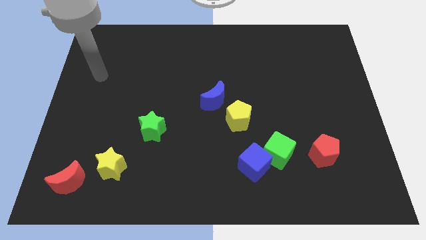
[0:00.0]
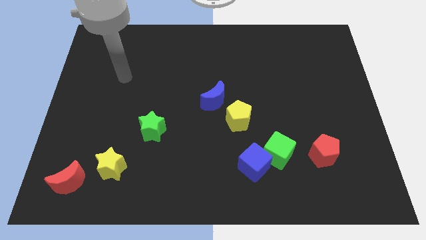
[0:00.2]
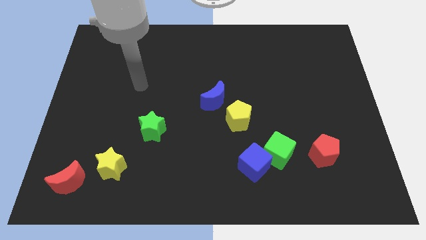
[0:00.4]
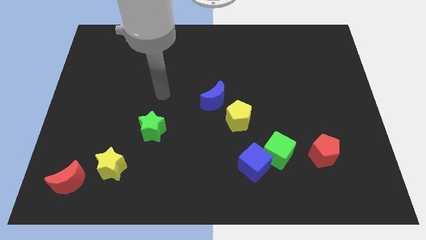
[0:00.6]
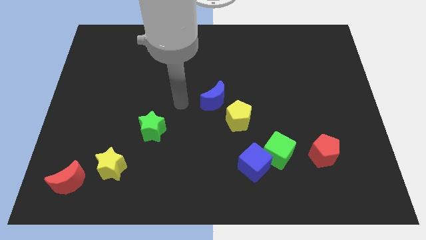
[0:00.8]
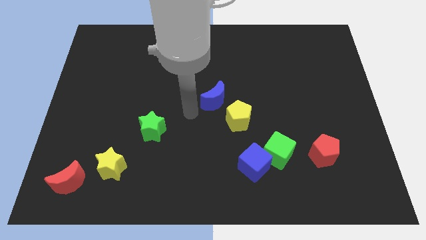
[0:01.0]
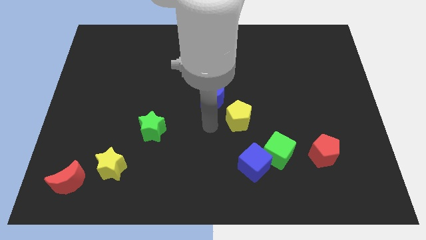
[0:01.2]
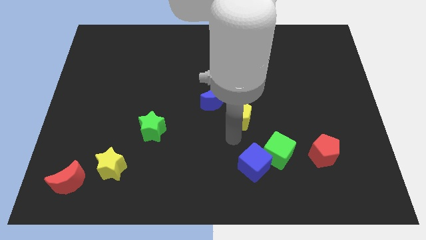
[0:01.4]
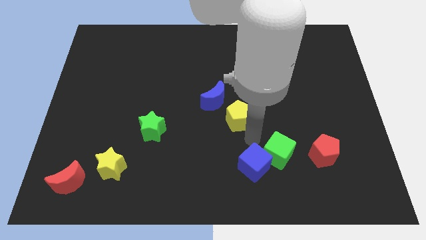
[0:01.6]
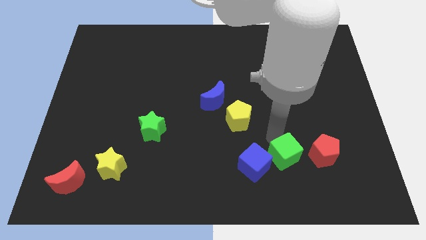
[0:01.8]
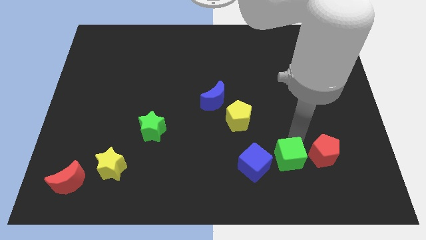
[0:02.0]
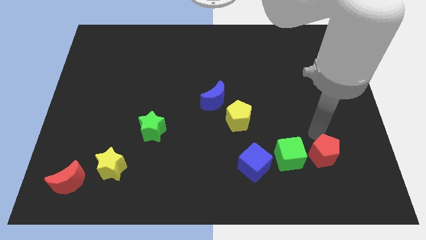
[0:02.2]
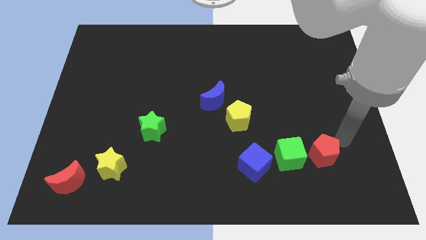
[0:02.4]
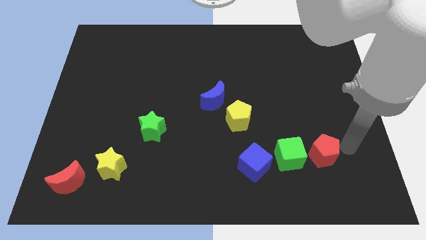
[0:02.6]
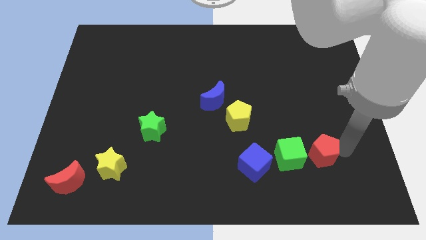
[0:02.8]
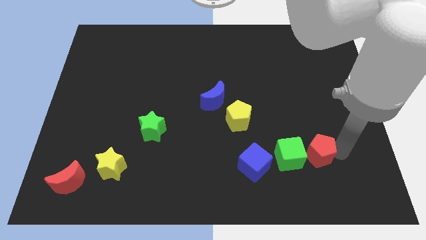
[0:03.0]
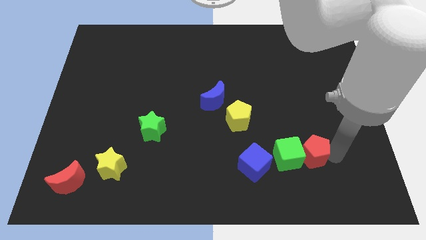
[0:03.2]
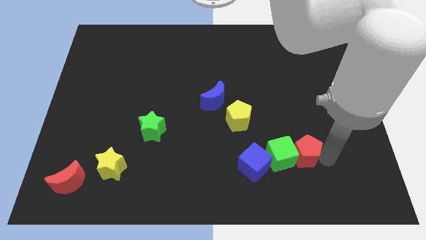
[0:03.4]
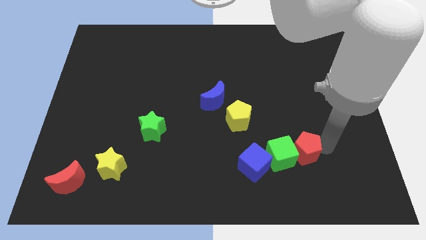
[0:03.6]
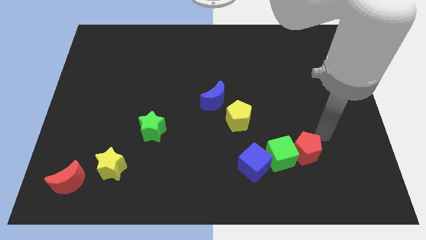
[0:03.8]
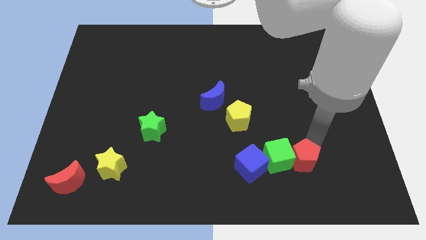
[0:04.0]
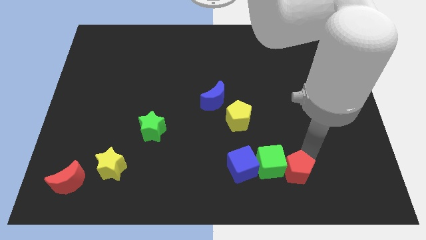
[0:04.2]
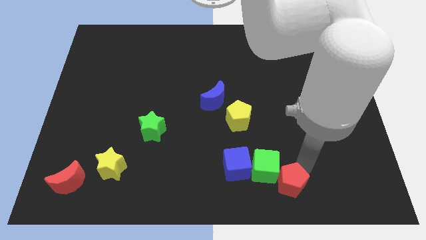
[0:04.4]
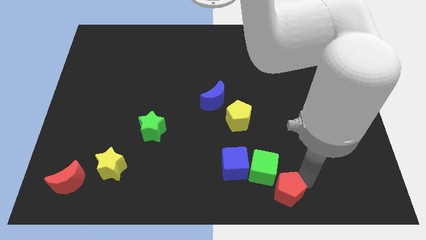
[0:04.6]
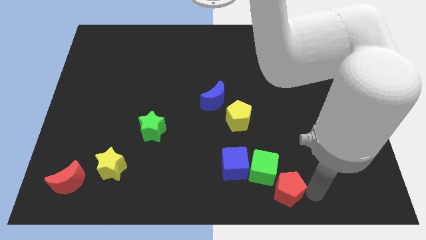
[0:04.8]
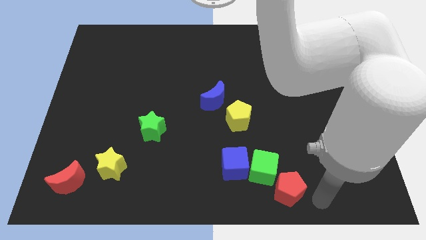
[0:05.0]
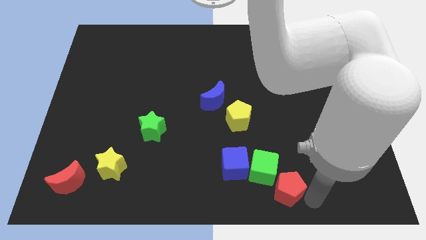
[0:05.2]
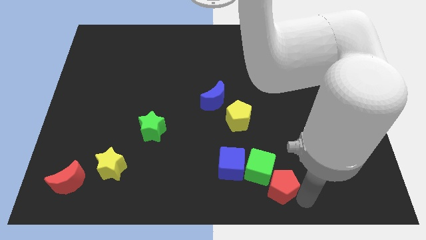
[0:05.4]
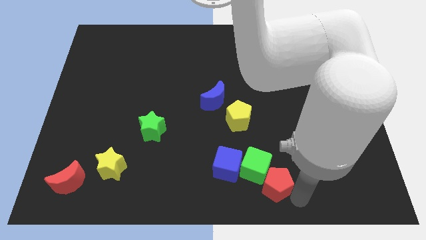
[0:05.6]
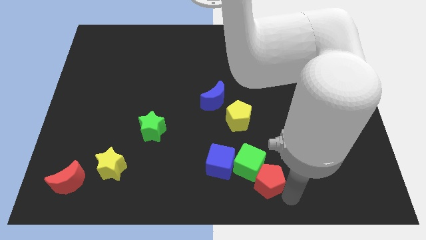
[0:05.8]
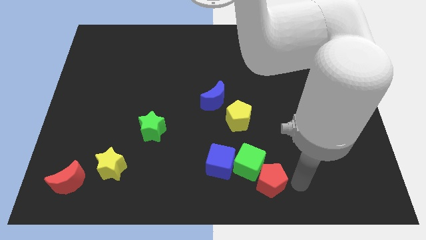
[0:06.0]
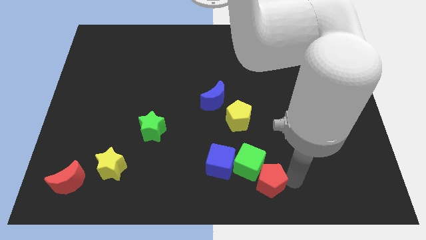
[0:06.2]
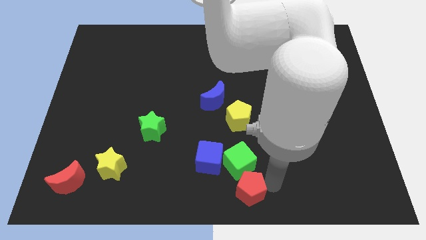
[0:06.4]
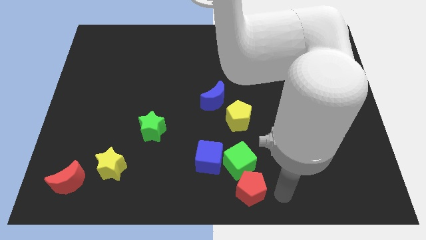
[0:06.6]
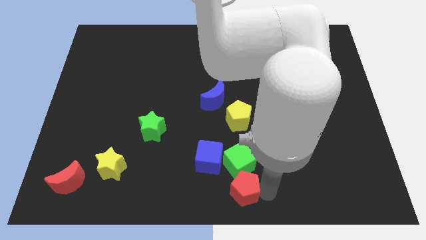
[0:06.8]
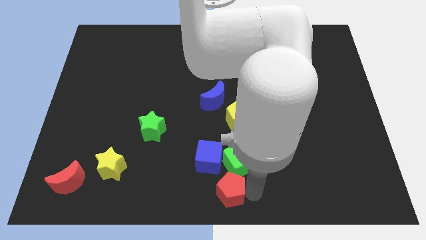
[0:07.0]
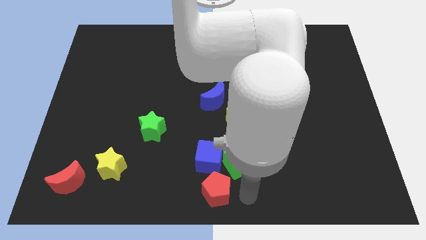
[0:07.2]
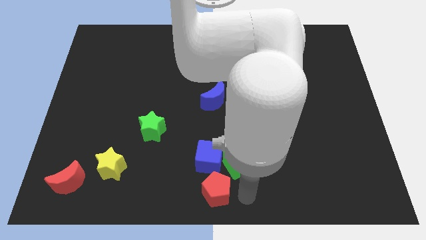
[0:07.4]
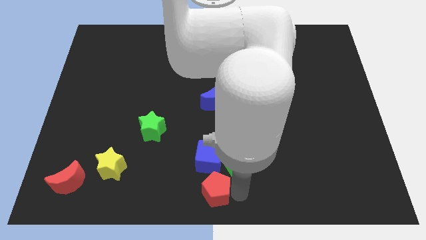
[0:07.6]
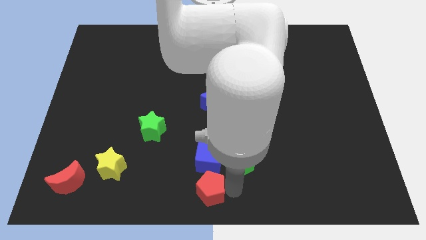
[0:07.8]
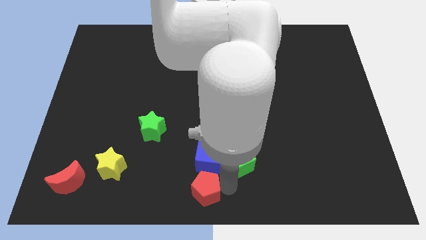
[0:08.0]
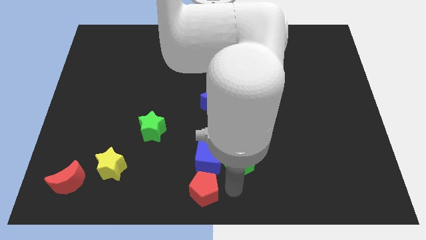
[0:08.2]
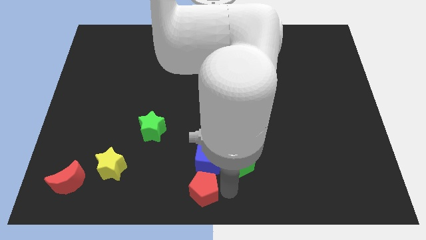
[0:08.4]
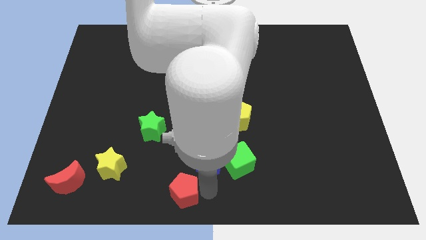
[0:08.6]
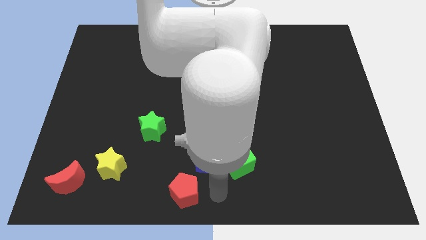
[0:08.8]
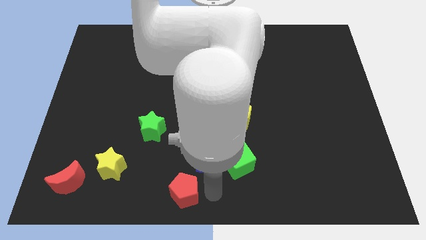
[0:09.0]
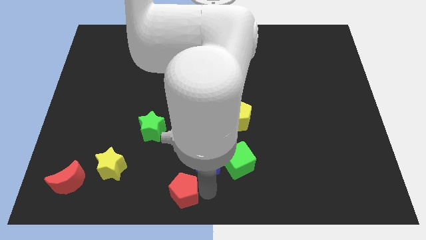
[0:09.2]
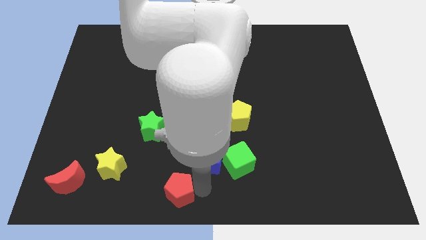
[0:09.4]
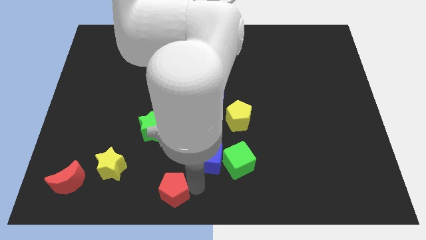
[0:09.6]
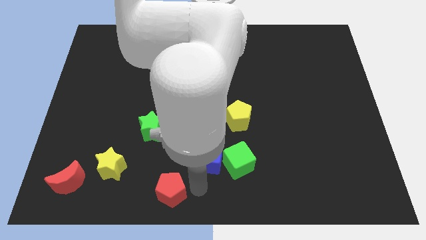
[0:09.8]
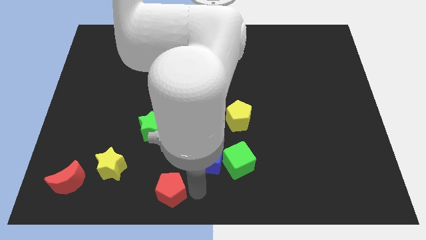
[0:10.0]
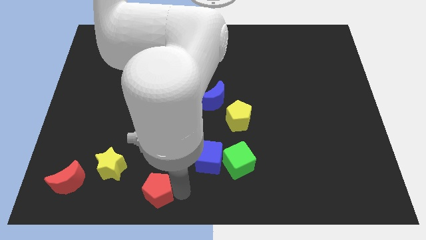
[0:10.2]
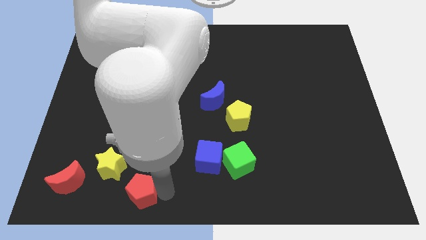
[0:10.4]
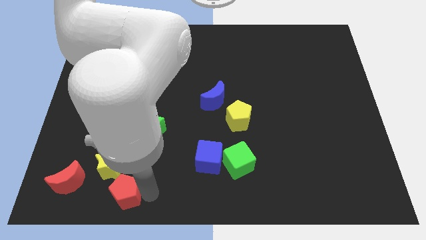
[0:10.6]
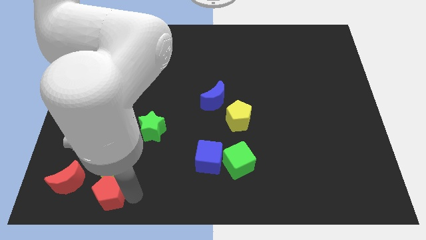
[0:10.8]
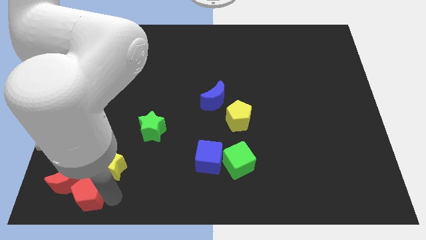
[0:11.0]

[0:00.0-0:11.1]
move the red pentagon to the red moon

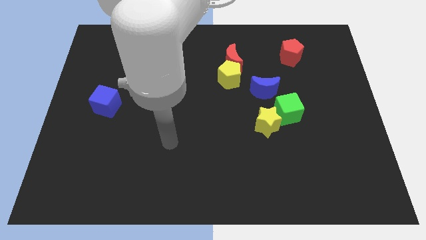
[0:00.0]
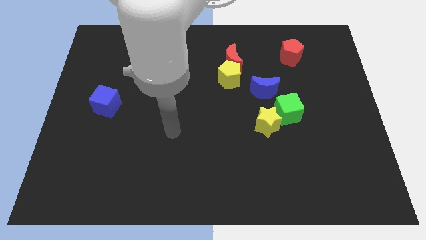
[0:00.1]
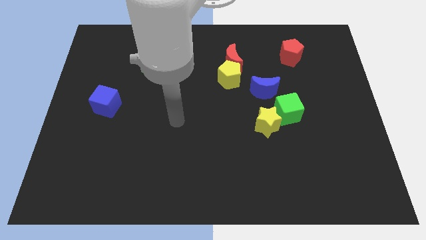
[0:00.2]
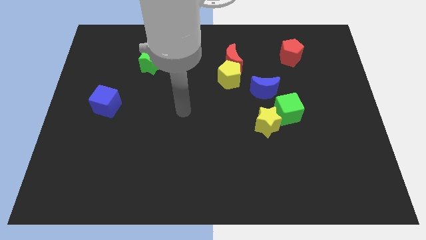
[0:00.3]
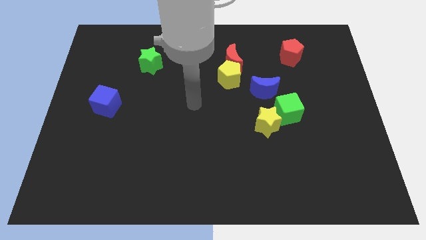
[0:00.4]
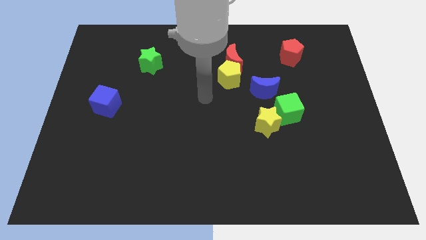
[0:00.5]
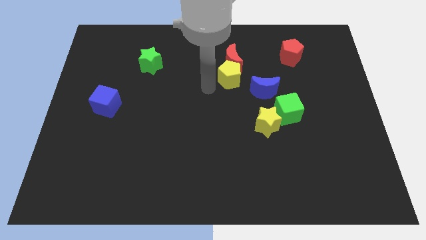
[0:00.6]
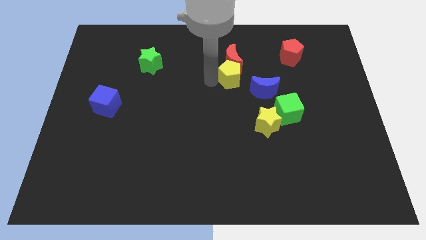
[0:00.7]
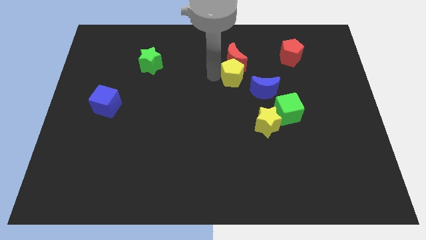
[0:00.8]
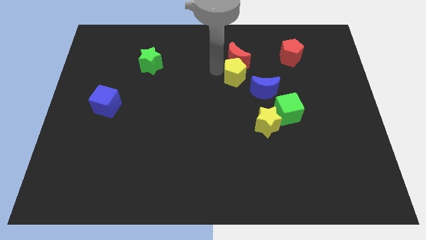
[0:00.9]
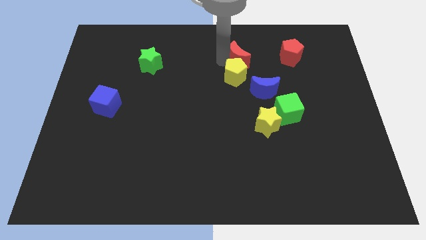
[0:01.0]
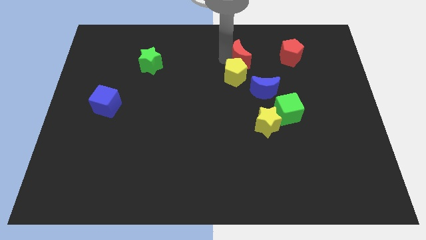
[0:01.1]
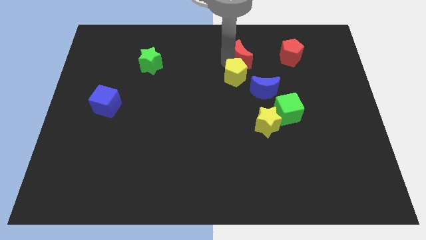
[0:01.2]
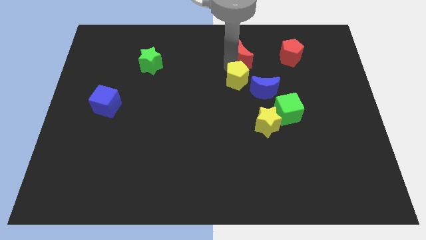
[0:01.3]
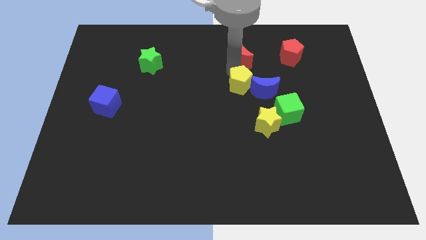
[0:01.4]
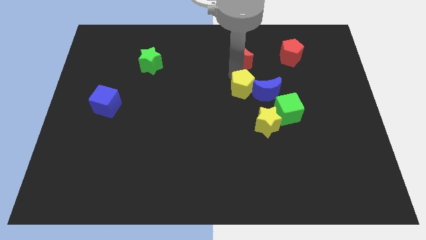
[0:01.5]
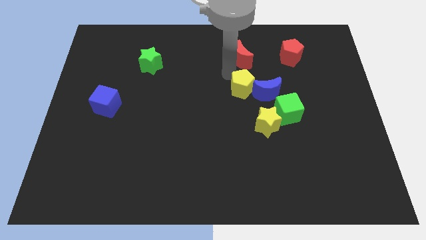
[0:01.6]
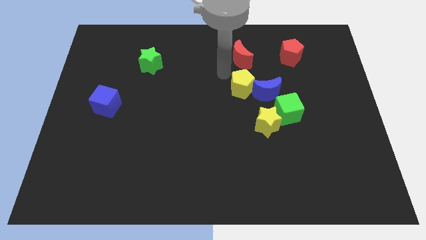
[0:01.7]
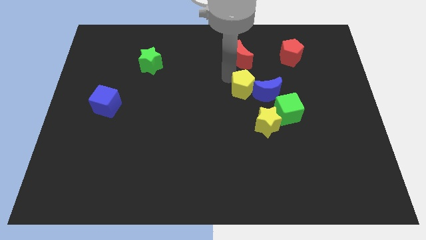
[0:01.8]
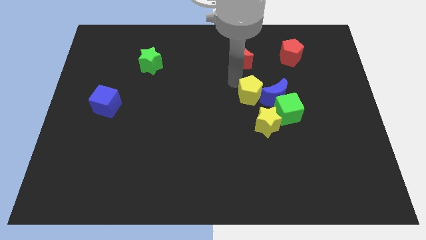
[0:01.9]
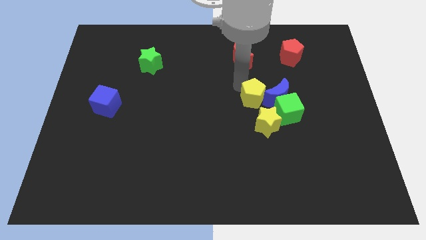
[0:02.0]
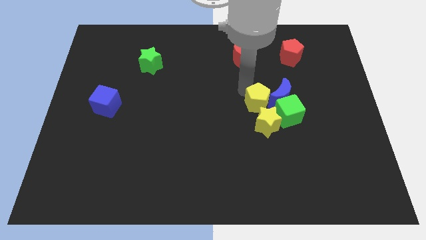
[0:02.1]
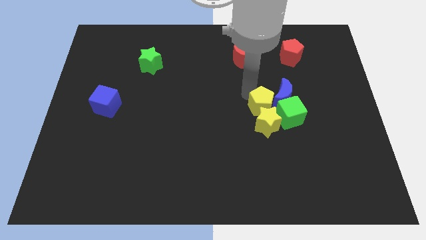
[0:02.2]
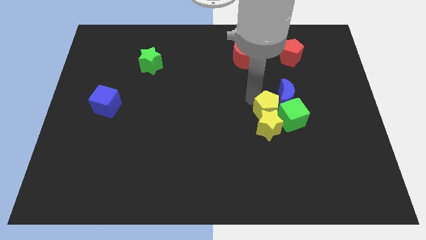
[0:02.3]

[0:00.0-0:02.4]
push the yellow pentagon close to the green cube
